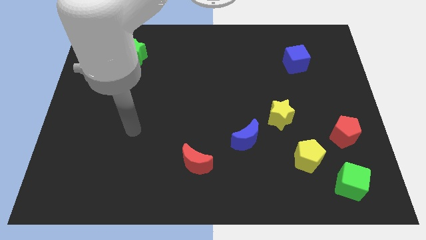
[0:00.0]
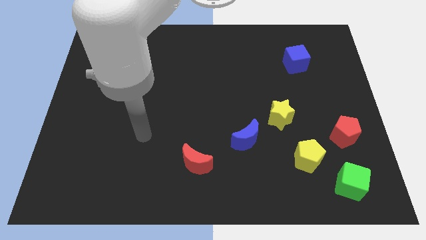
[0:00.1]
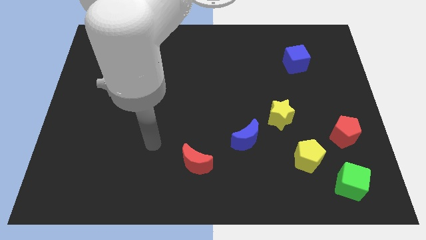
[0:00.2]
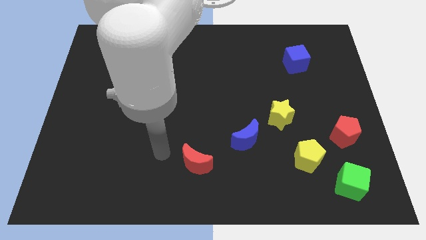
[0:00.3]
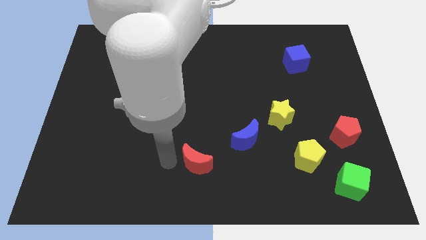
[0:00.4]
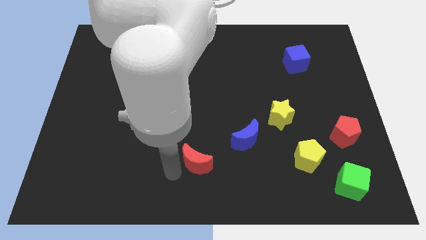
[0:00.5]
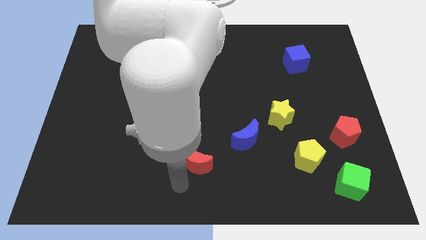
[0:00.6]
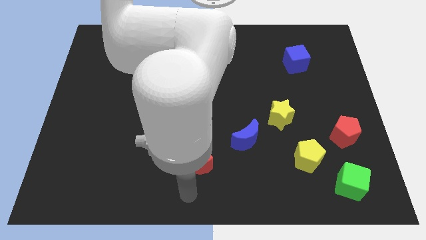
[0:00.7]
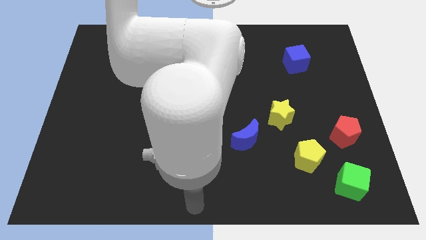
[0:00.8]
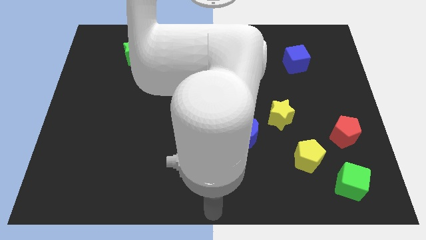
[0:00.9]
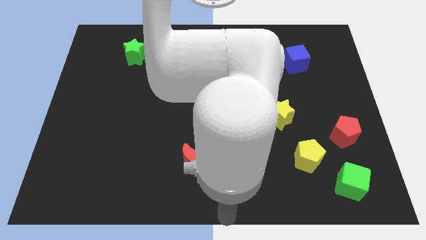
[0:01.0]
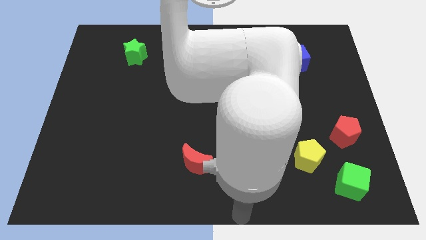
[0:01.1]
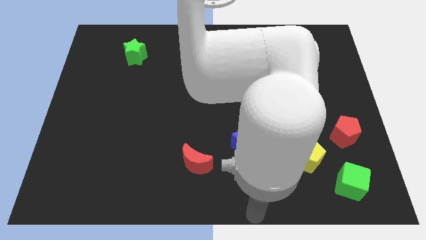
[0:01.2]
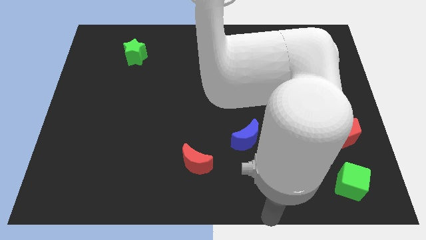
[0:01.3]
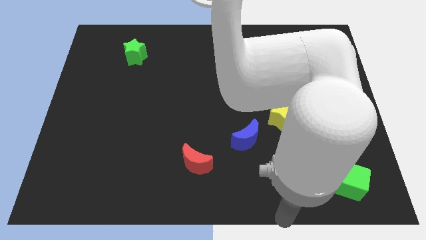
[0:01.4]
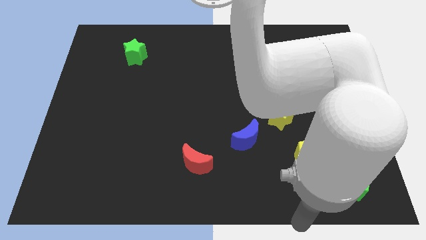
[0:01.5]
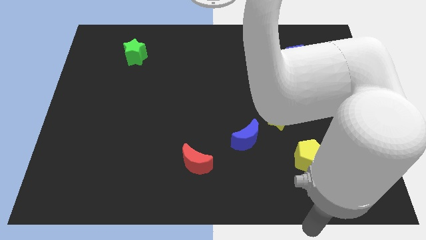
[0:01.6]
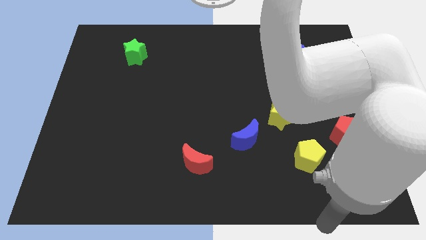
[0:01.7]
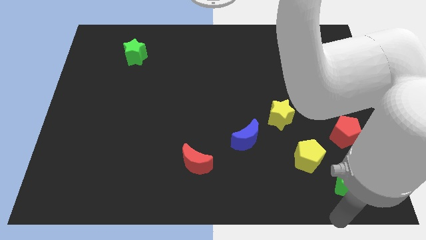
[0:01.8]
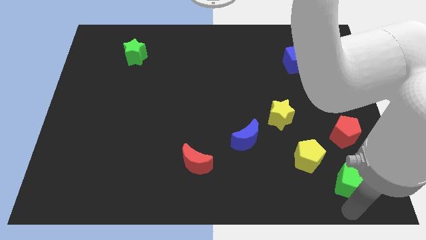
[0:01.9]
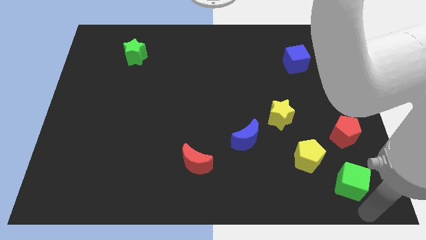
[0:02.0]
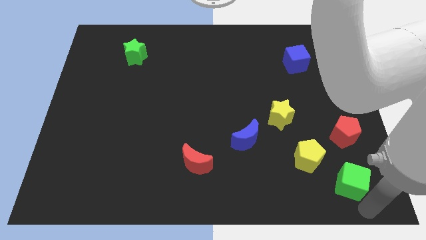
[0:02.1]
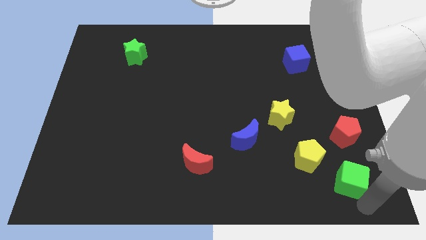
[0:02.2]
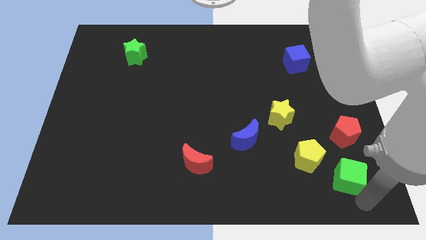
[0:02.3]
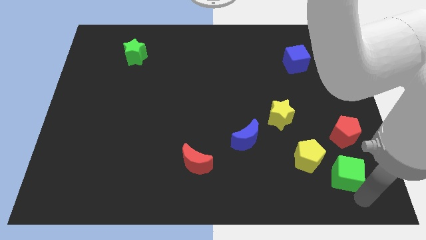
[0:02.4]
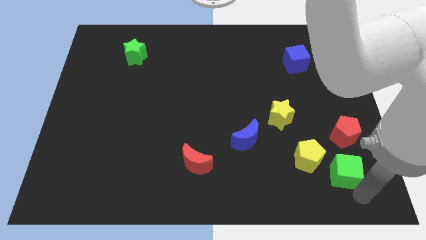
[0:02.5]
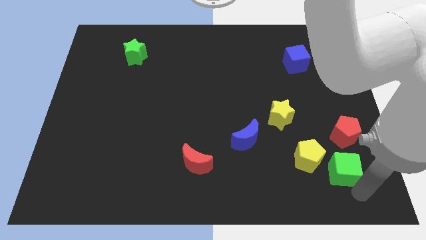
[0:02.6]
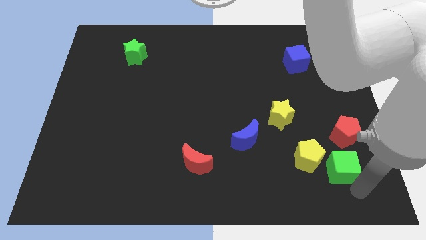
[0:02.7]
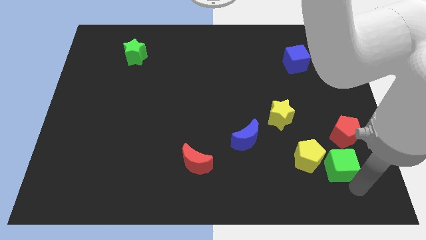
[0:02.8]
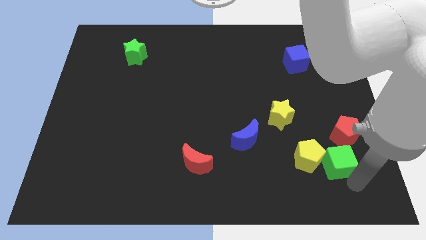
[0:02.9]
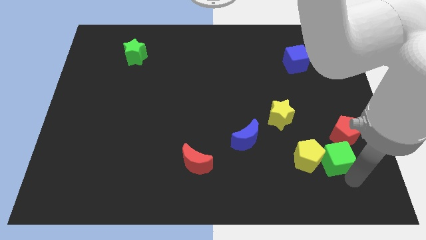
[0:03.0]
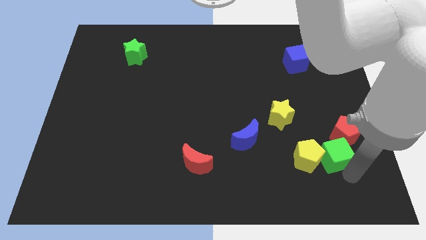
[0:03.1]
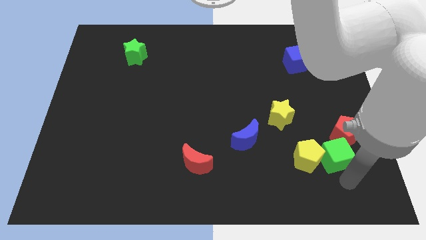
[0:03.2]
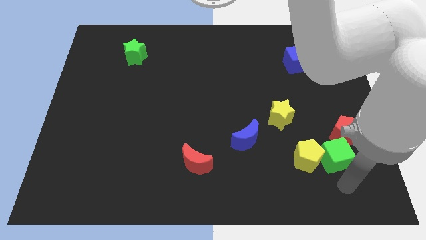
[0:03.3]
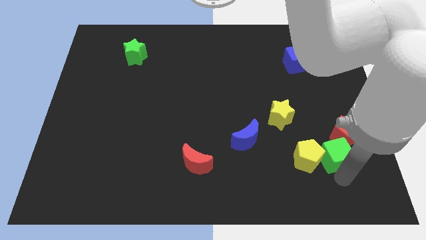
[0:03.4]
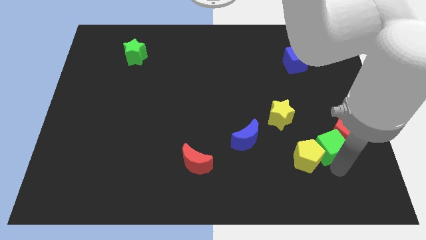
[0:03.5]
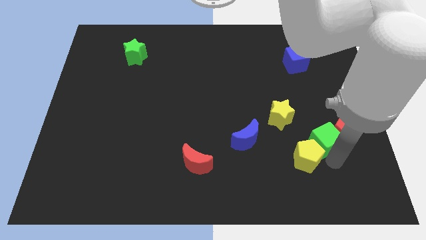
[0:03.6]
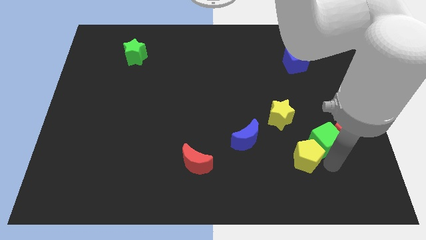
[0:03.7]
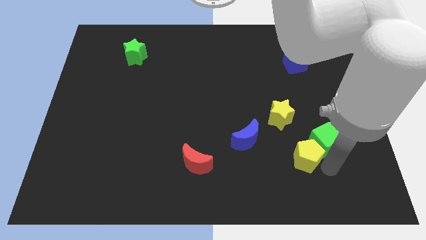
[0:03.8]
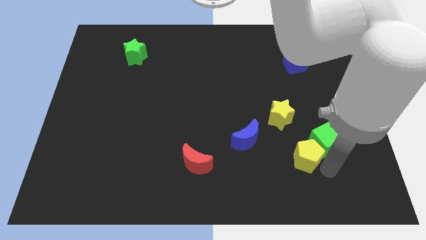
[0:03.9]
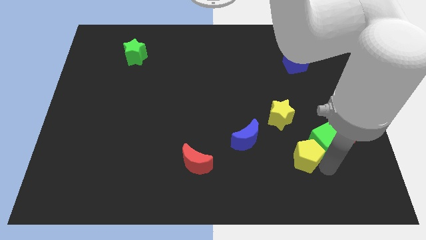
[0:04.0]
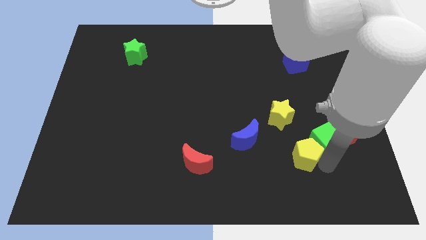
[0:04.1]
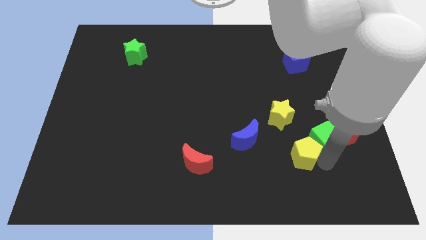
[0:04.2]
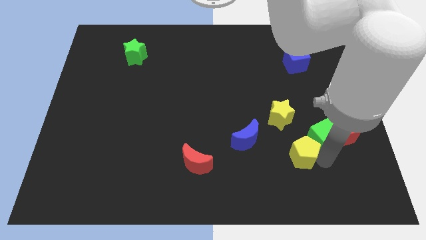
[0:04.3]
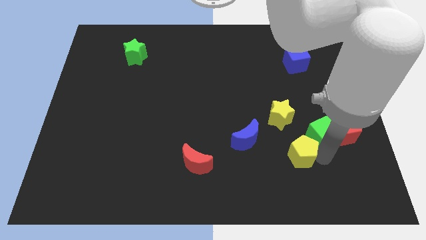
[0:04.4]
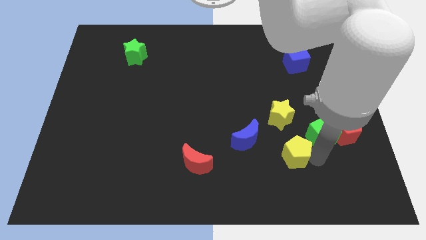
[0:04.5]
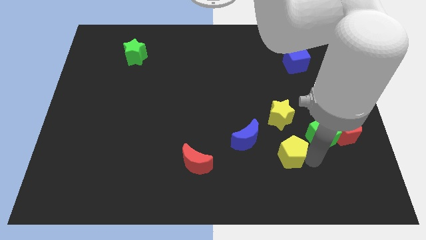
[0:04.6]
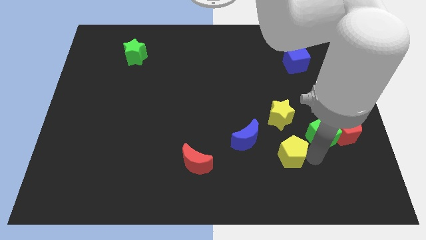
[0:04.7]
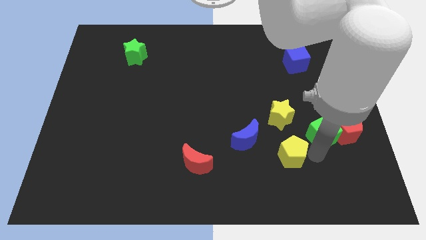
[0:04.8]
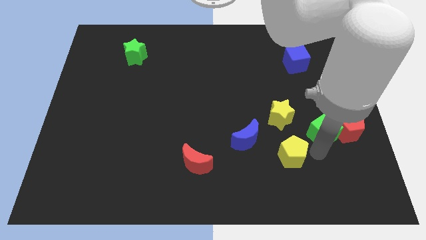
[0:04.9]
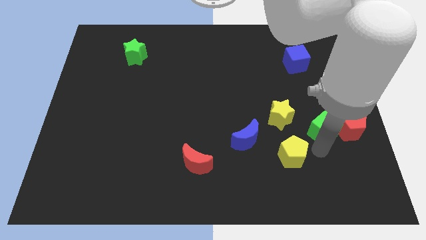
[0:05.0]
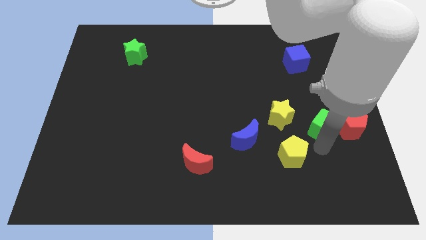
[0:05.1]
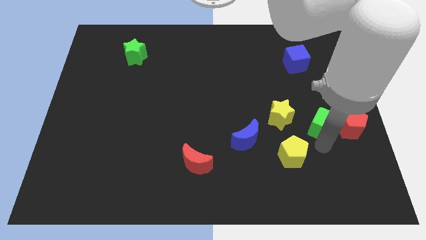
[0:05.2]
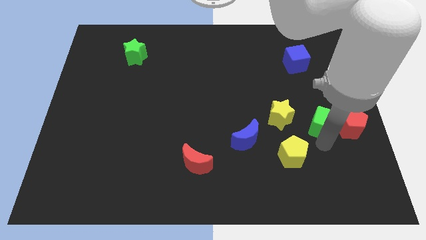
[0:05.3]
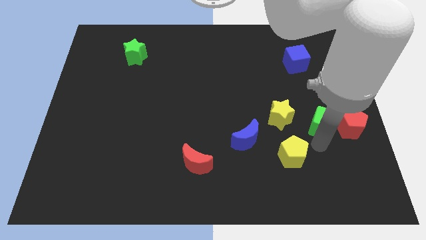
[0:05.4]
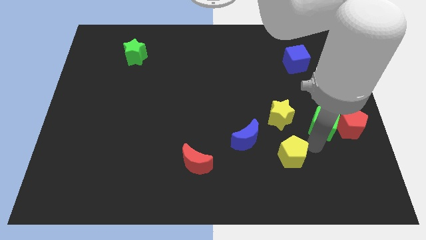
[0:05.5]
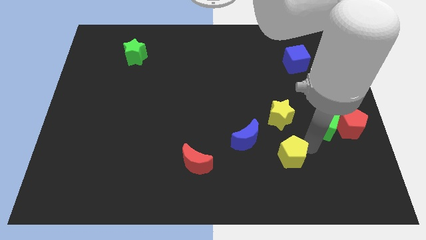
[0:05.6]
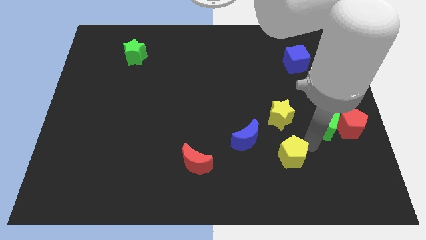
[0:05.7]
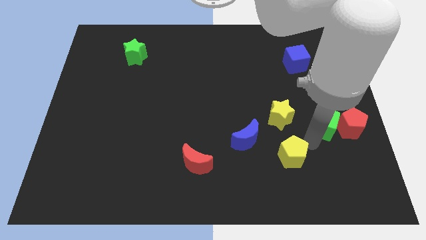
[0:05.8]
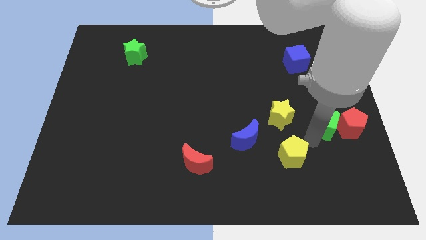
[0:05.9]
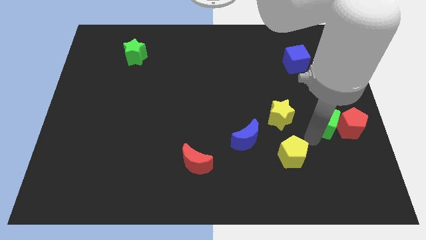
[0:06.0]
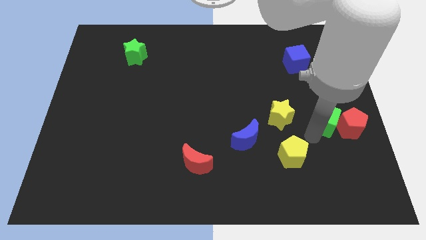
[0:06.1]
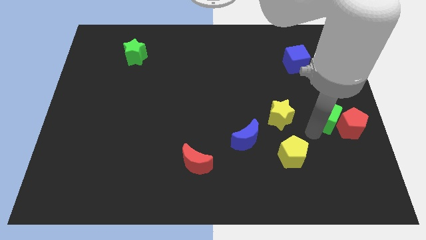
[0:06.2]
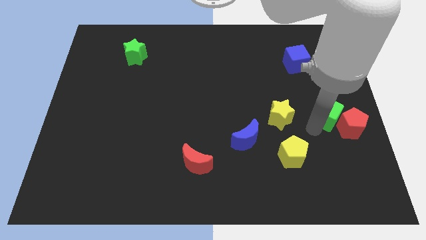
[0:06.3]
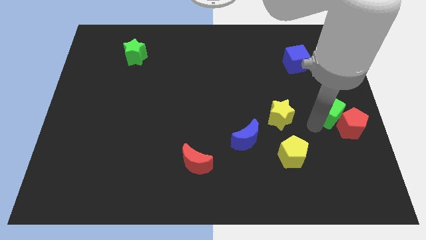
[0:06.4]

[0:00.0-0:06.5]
slide the green cube to the top side of the red pentagon

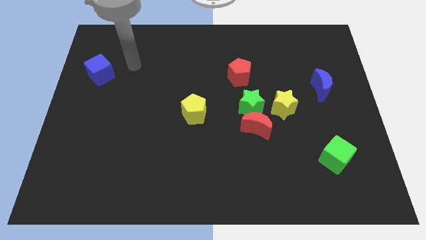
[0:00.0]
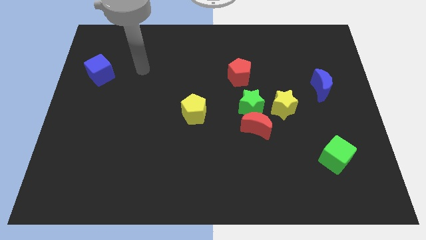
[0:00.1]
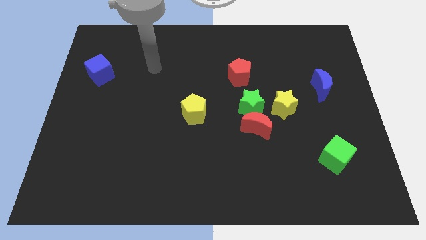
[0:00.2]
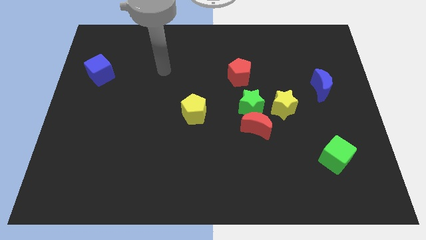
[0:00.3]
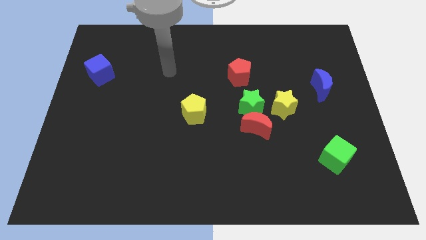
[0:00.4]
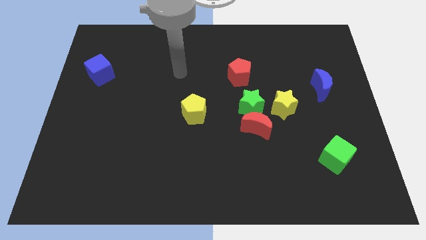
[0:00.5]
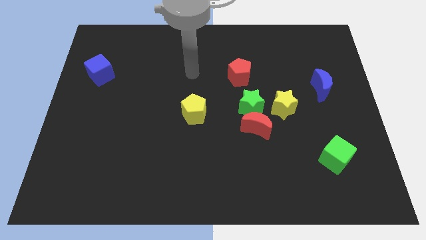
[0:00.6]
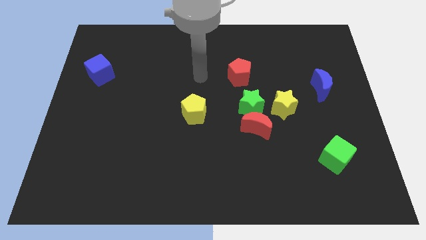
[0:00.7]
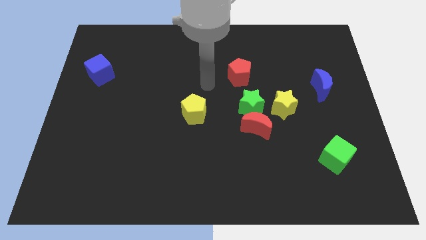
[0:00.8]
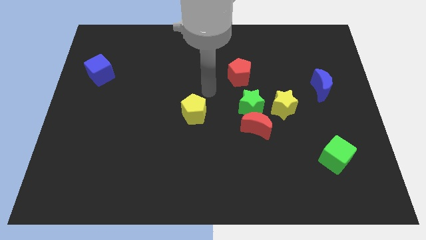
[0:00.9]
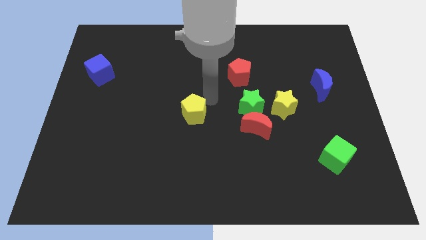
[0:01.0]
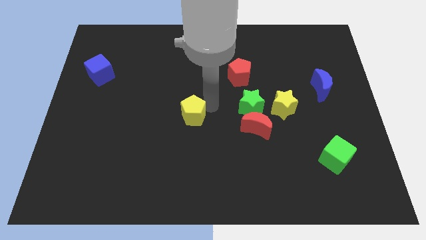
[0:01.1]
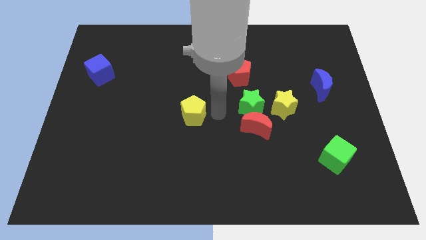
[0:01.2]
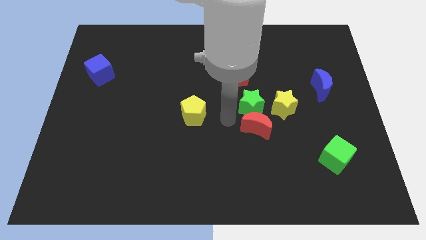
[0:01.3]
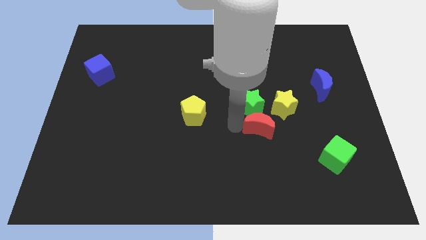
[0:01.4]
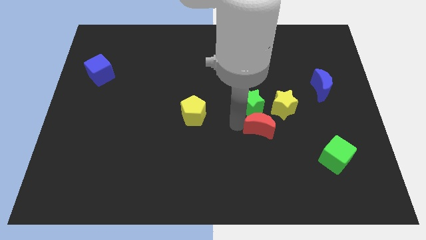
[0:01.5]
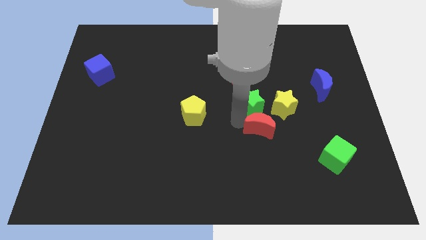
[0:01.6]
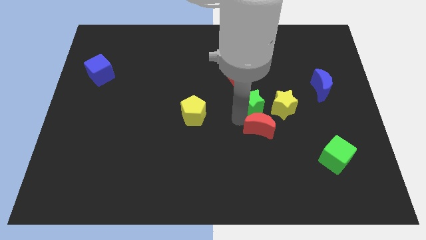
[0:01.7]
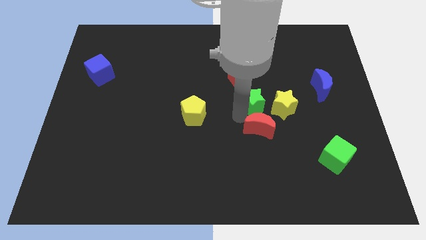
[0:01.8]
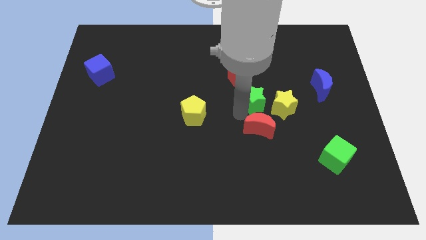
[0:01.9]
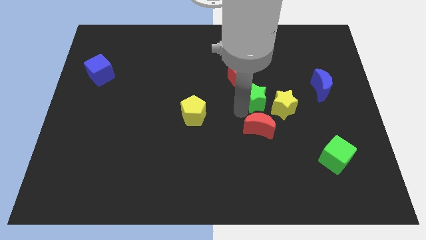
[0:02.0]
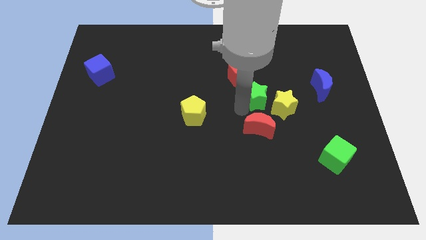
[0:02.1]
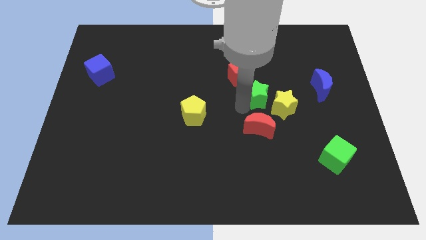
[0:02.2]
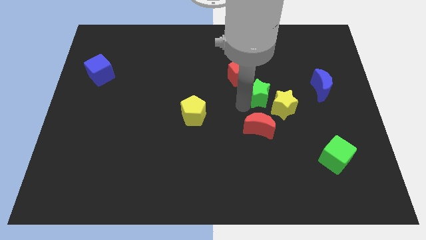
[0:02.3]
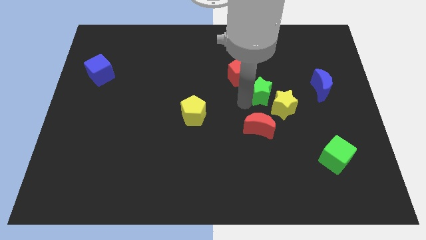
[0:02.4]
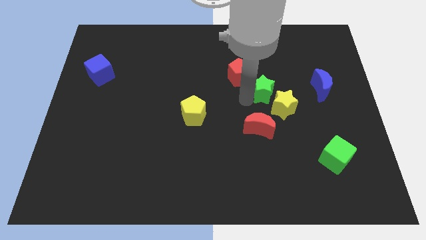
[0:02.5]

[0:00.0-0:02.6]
put the green star to the top of the yellow star
